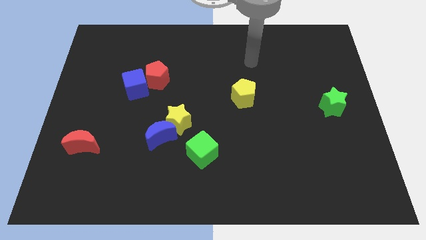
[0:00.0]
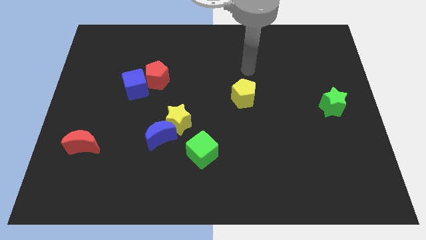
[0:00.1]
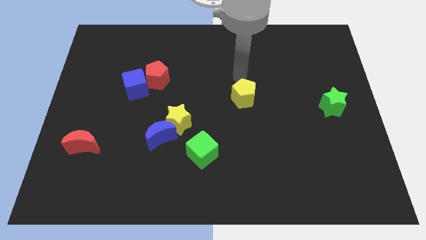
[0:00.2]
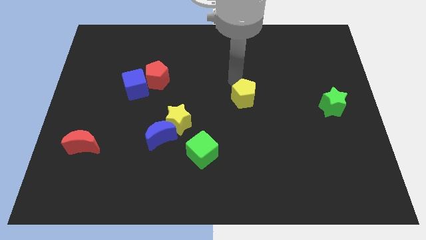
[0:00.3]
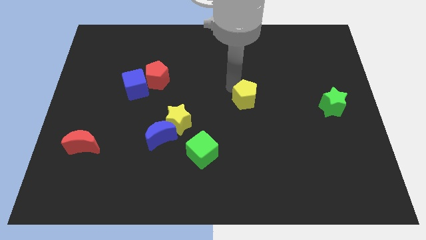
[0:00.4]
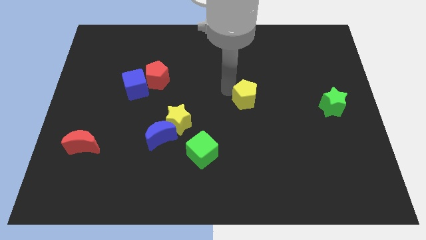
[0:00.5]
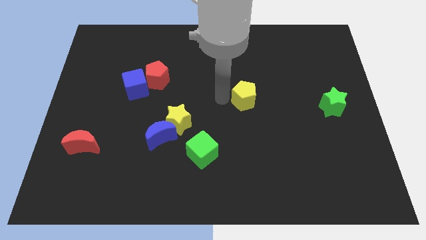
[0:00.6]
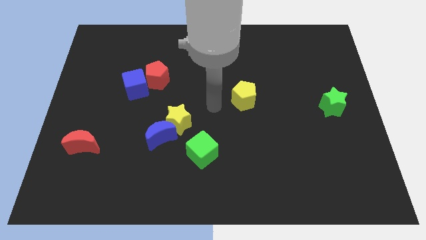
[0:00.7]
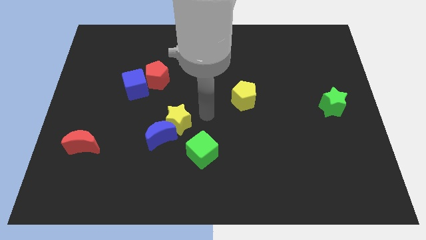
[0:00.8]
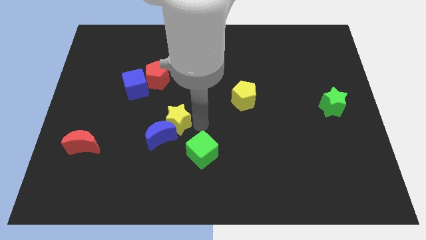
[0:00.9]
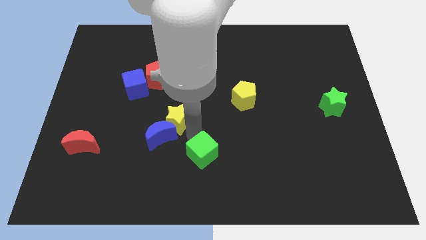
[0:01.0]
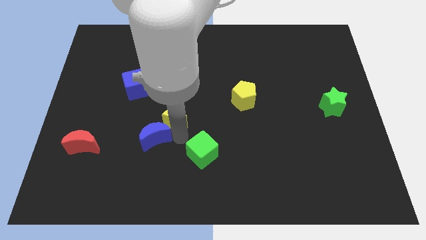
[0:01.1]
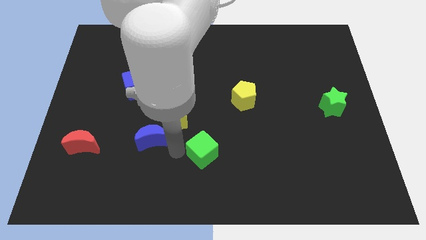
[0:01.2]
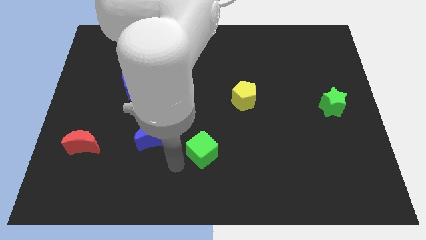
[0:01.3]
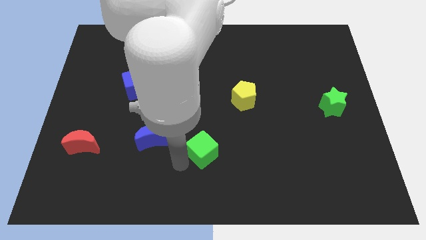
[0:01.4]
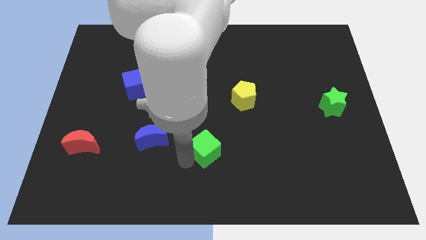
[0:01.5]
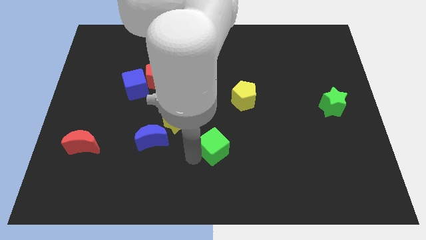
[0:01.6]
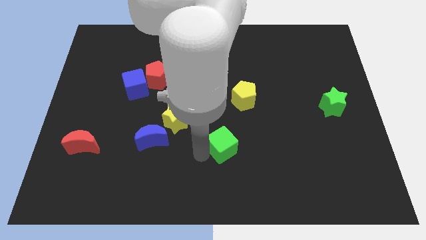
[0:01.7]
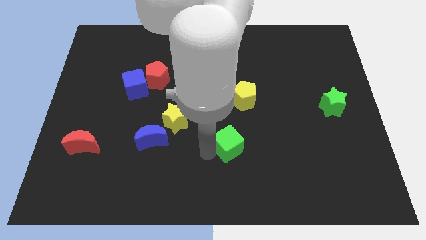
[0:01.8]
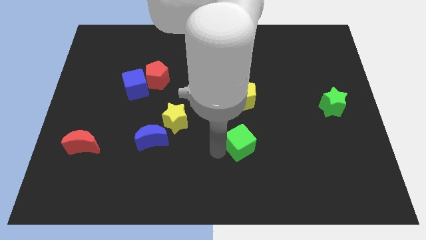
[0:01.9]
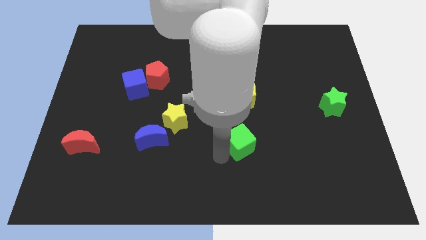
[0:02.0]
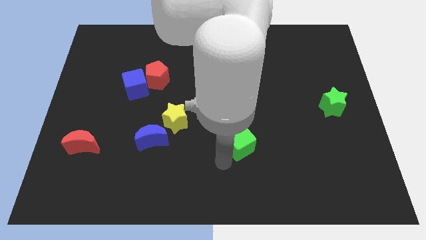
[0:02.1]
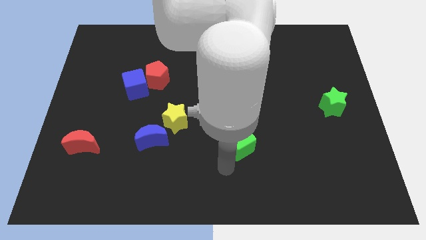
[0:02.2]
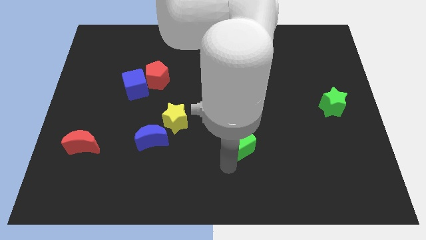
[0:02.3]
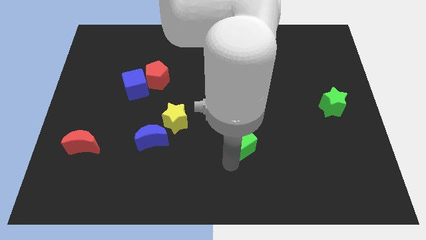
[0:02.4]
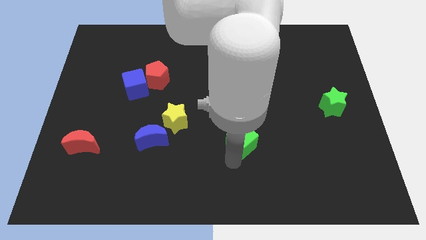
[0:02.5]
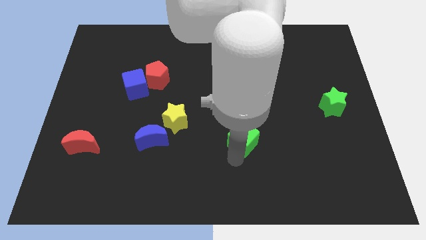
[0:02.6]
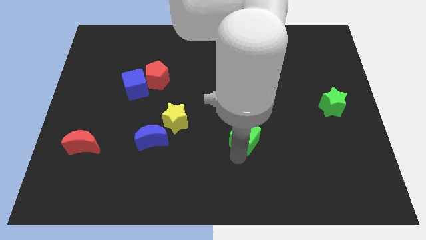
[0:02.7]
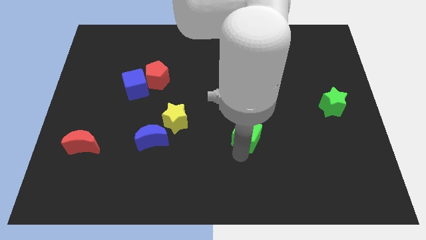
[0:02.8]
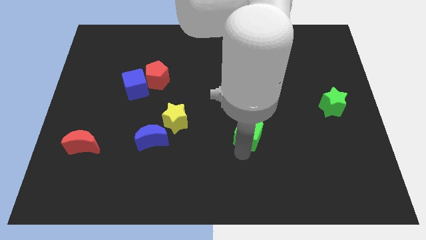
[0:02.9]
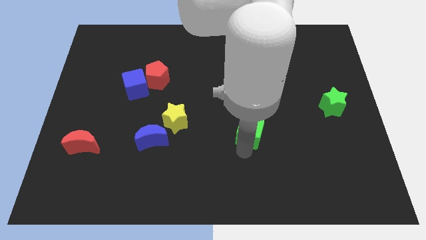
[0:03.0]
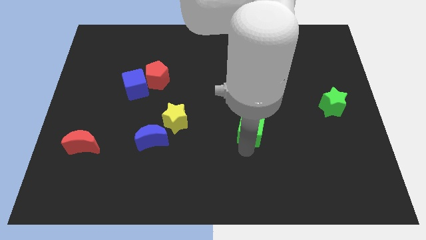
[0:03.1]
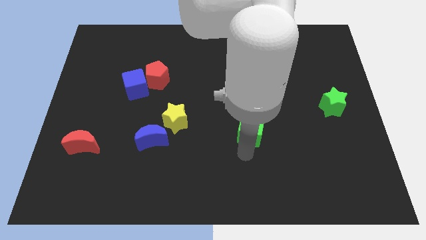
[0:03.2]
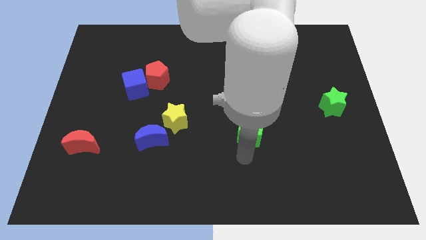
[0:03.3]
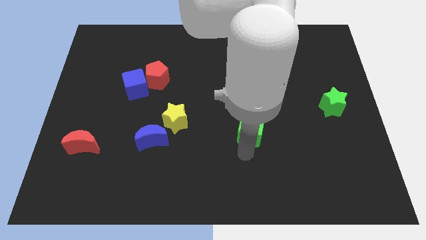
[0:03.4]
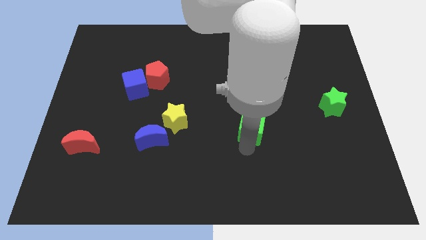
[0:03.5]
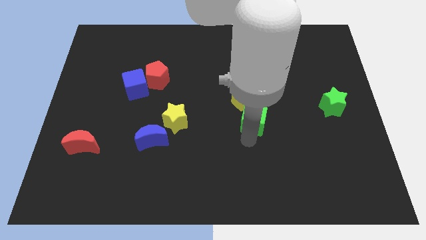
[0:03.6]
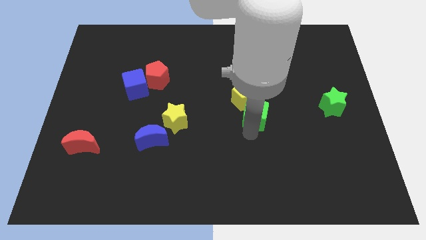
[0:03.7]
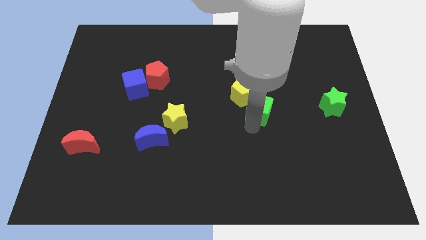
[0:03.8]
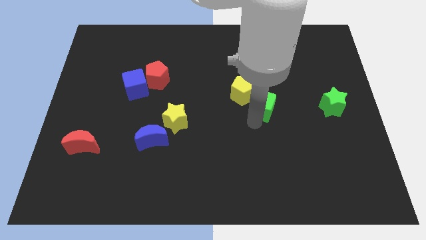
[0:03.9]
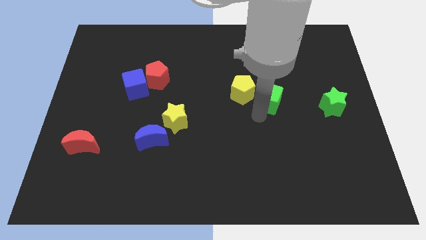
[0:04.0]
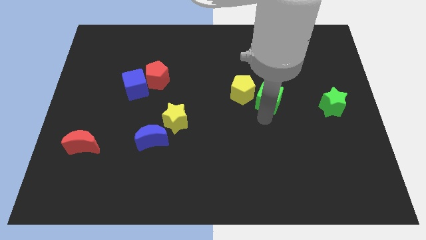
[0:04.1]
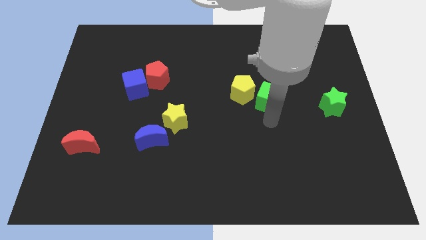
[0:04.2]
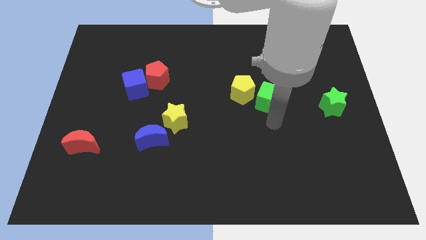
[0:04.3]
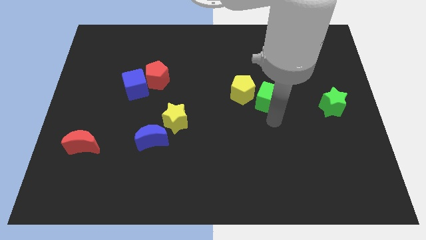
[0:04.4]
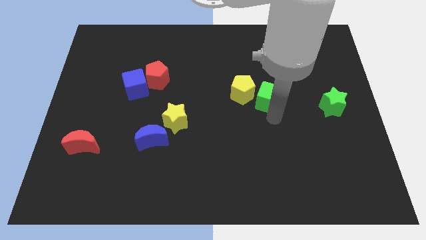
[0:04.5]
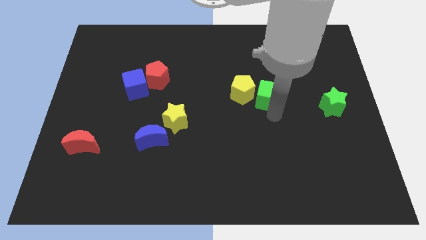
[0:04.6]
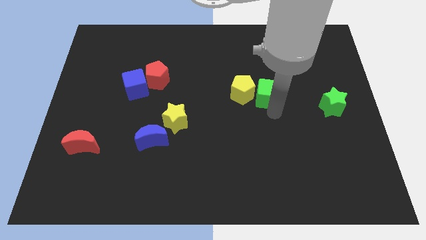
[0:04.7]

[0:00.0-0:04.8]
put the green cube to the top right side of the yellow pentagon

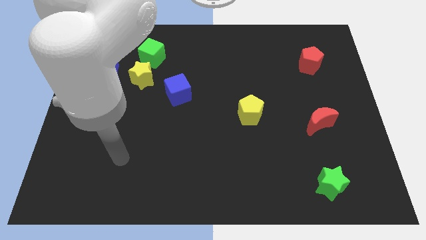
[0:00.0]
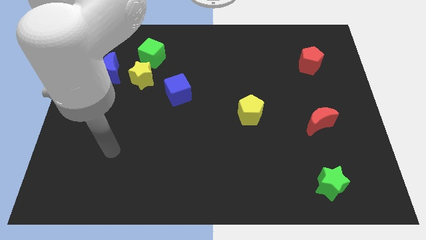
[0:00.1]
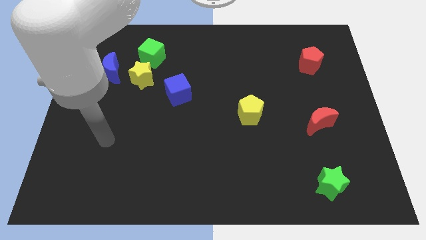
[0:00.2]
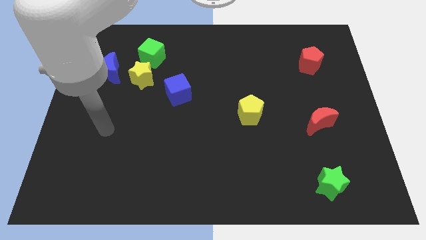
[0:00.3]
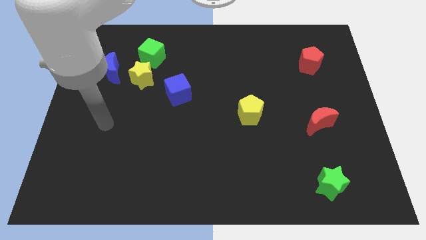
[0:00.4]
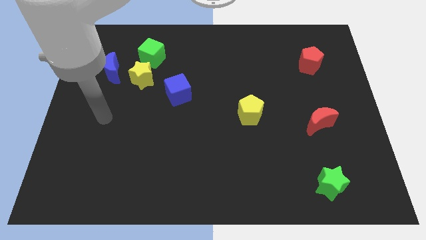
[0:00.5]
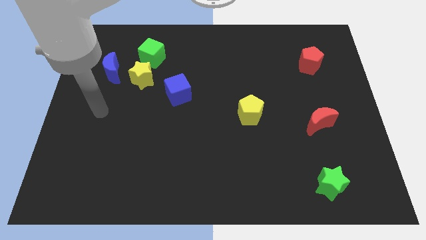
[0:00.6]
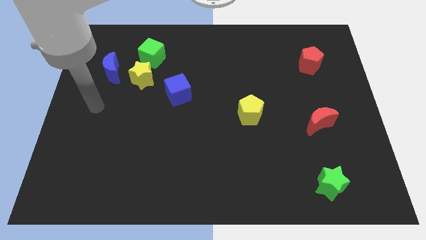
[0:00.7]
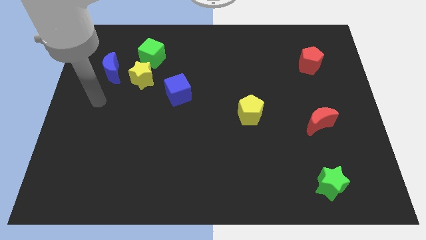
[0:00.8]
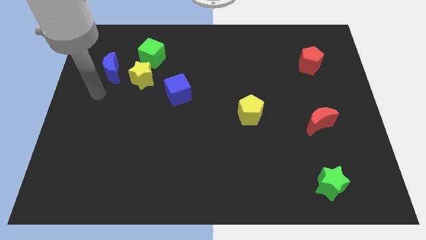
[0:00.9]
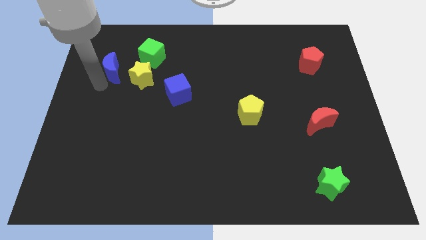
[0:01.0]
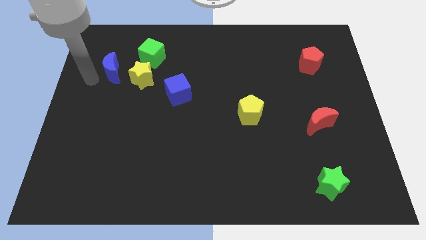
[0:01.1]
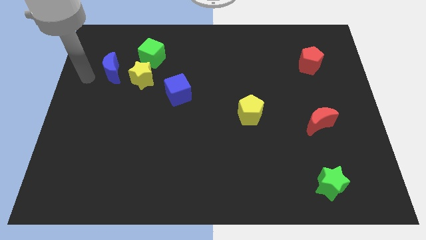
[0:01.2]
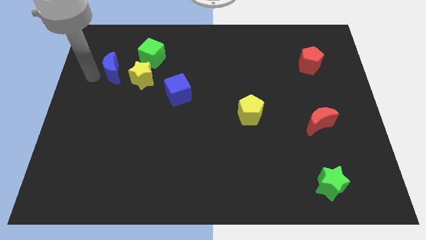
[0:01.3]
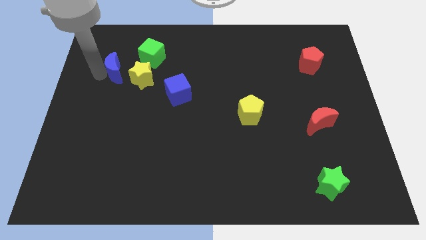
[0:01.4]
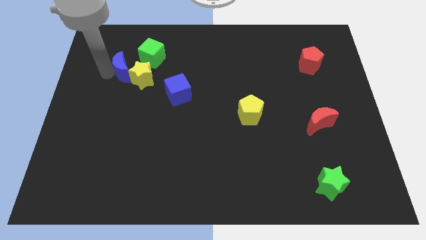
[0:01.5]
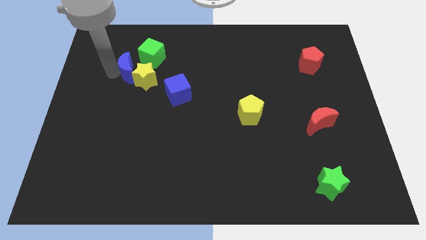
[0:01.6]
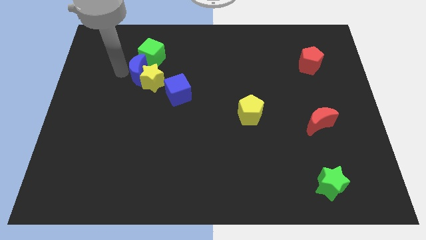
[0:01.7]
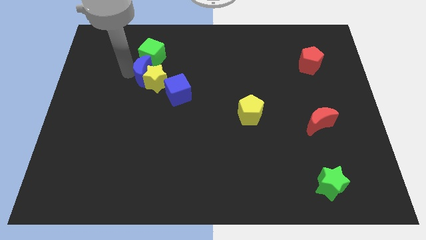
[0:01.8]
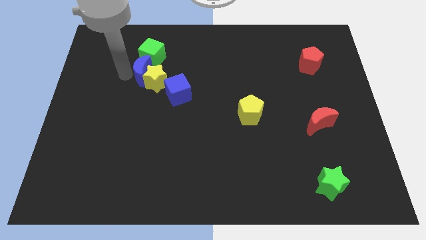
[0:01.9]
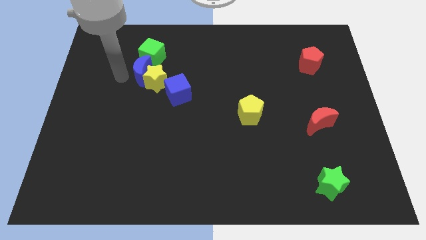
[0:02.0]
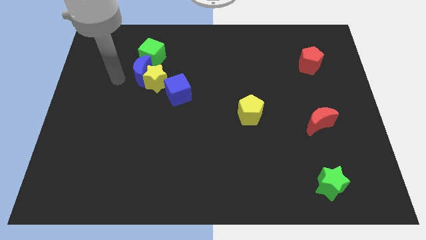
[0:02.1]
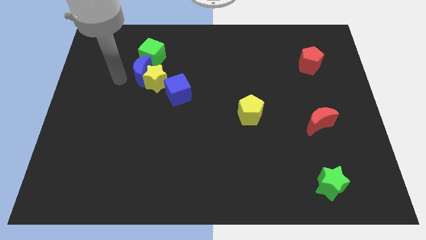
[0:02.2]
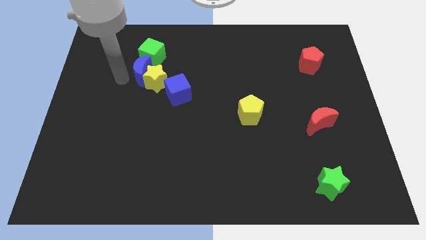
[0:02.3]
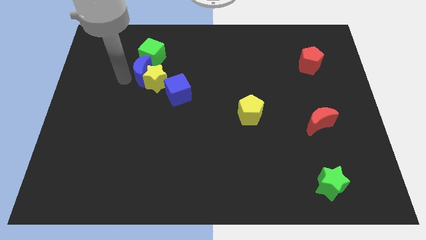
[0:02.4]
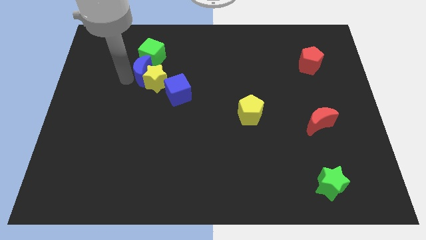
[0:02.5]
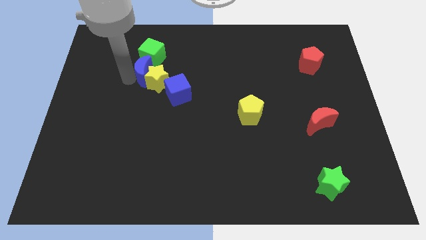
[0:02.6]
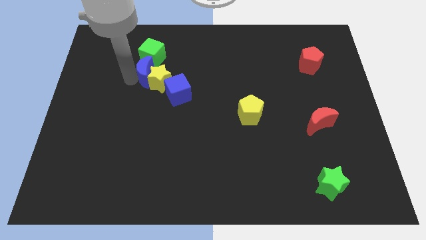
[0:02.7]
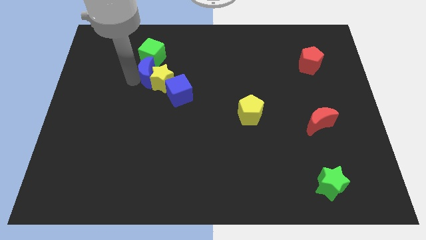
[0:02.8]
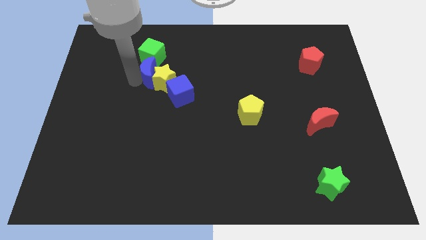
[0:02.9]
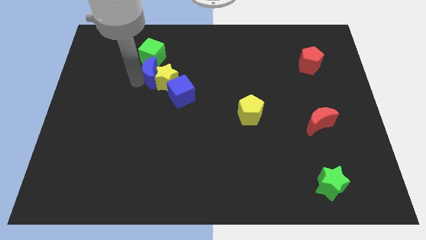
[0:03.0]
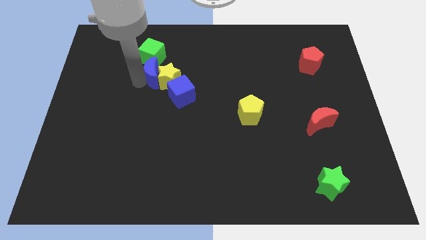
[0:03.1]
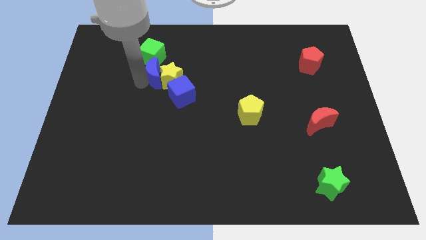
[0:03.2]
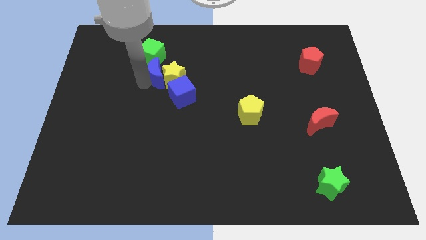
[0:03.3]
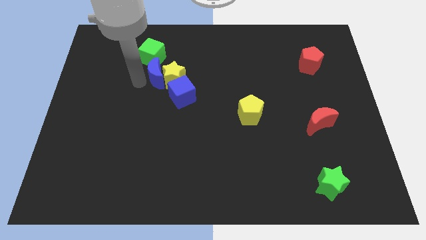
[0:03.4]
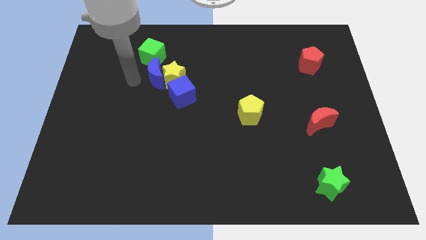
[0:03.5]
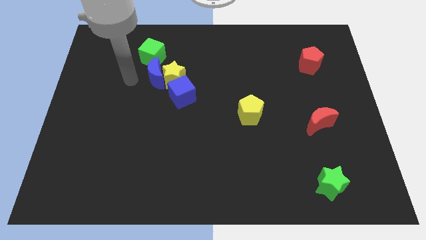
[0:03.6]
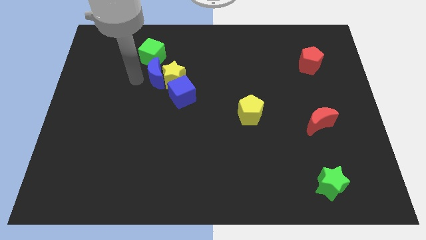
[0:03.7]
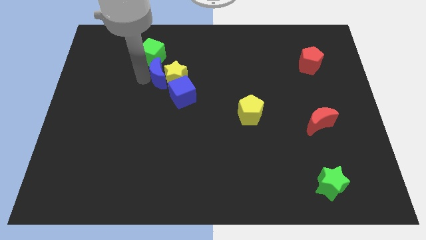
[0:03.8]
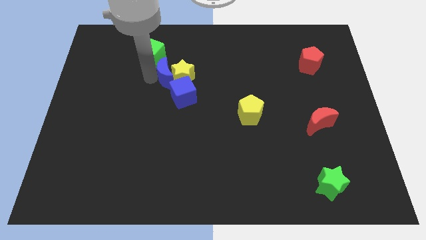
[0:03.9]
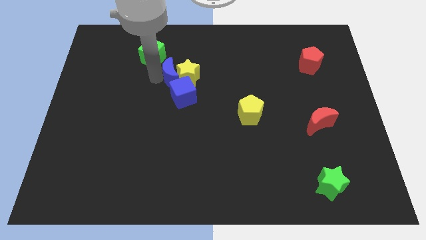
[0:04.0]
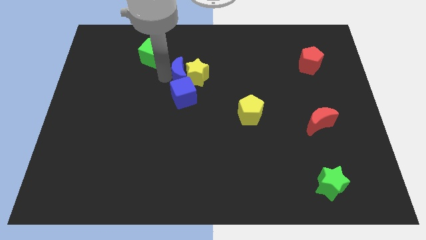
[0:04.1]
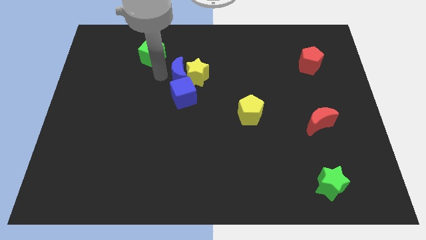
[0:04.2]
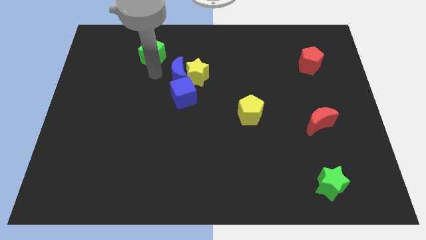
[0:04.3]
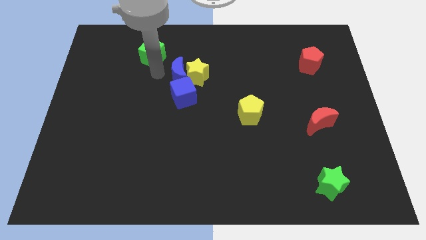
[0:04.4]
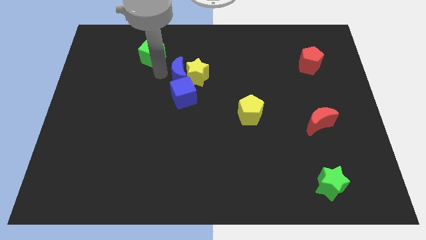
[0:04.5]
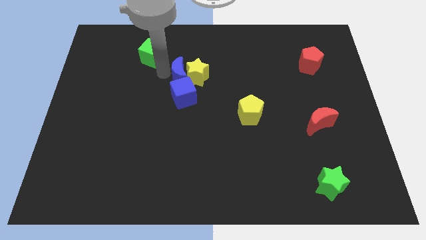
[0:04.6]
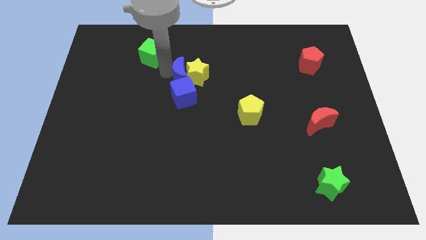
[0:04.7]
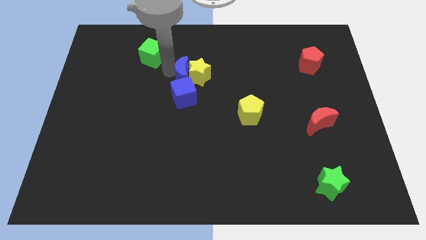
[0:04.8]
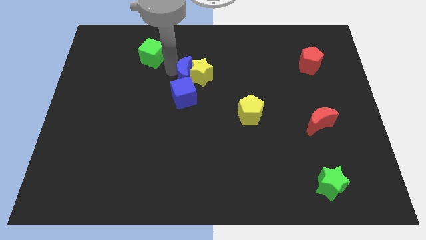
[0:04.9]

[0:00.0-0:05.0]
push the blue moon to the top right side of the blue cube
